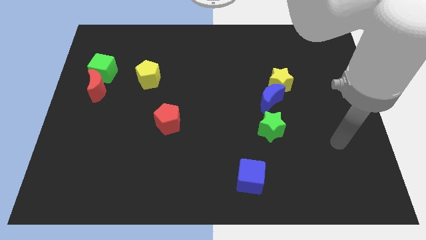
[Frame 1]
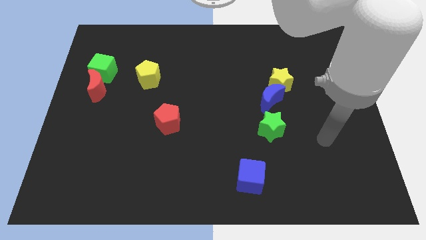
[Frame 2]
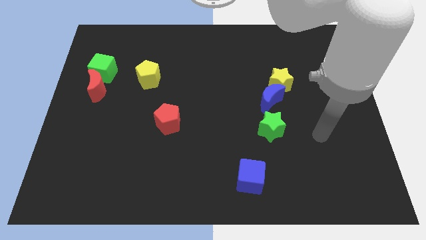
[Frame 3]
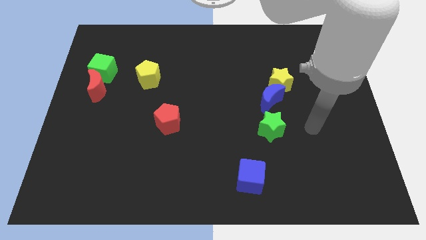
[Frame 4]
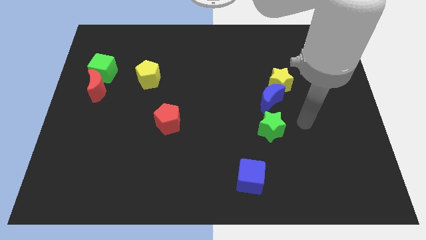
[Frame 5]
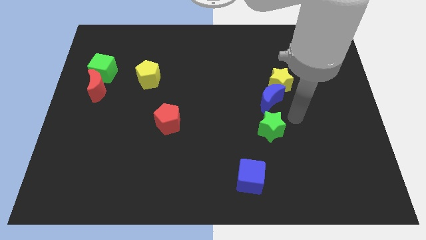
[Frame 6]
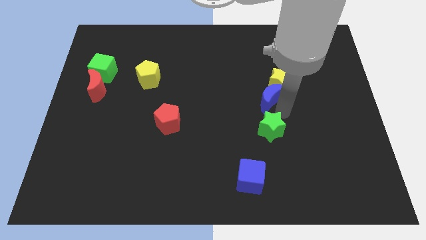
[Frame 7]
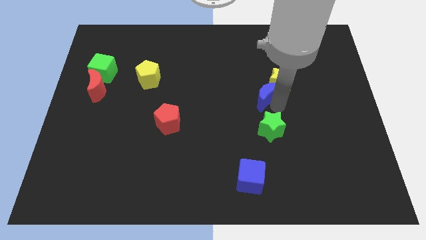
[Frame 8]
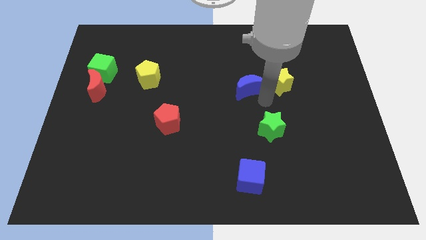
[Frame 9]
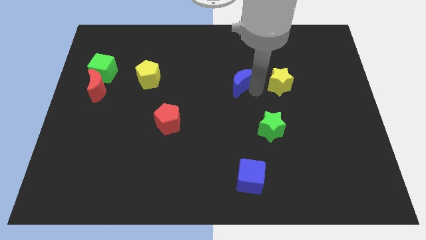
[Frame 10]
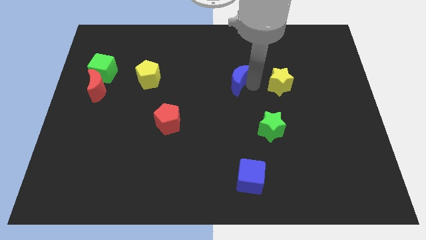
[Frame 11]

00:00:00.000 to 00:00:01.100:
move the yellow star away from the blue moon

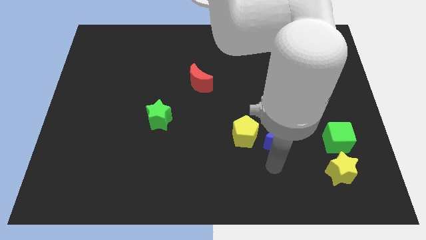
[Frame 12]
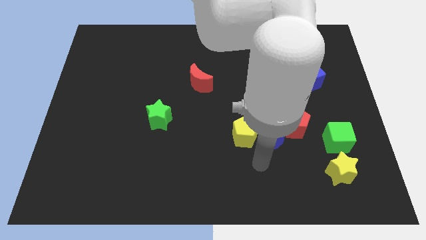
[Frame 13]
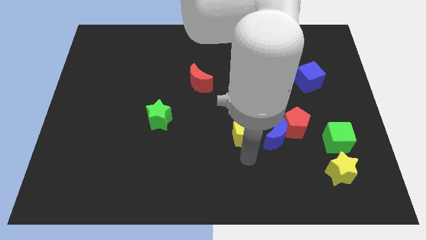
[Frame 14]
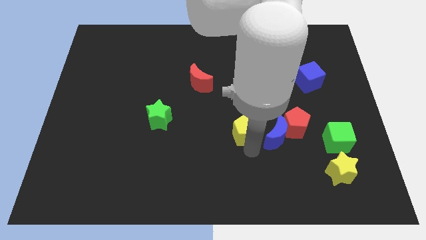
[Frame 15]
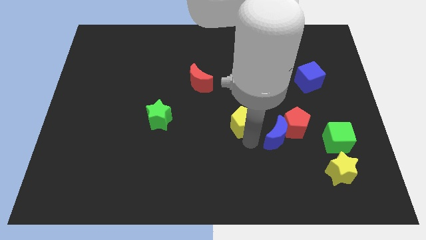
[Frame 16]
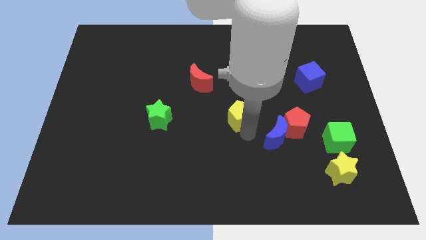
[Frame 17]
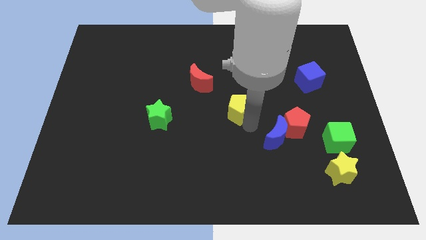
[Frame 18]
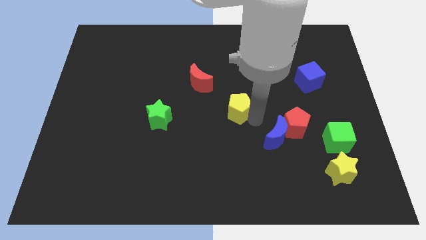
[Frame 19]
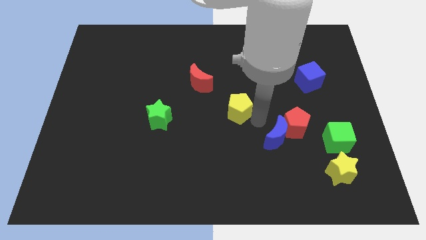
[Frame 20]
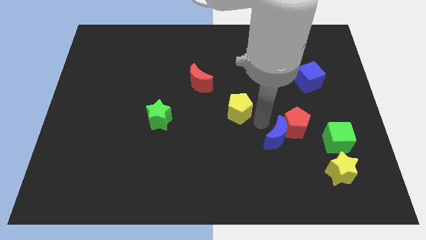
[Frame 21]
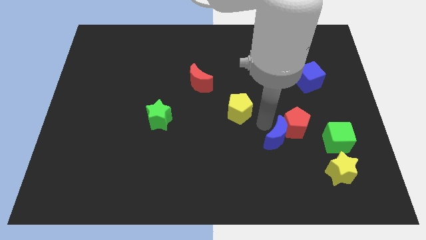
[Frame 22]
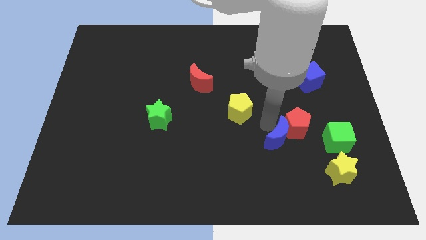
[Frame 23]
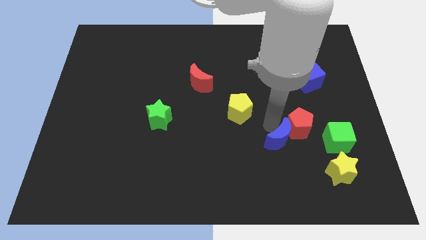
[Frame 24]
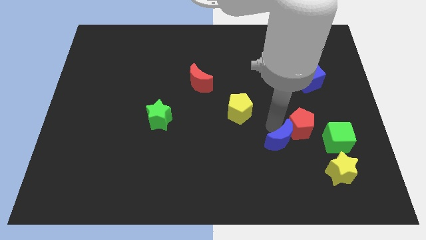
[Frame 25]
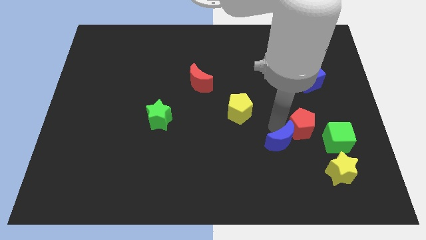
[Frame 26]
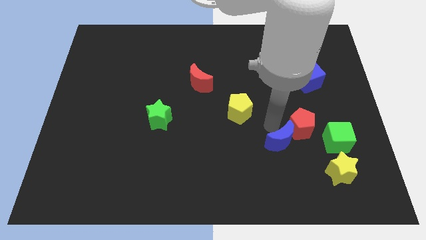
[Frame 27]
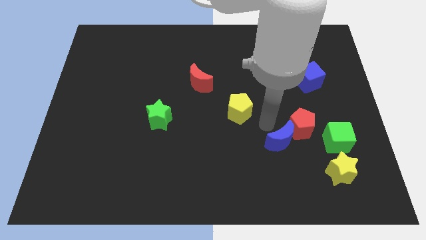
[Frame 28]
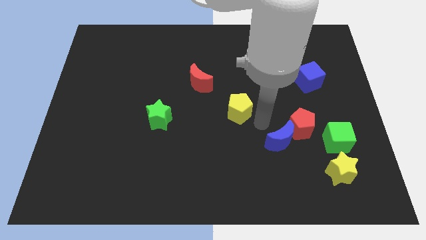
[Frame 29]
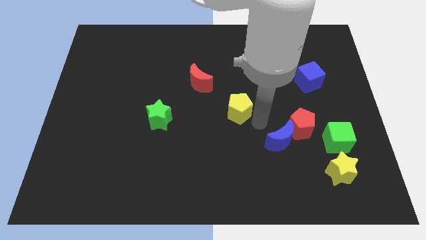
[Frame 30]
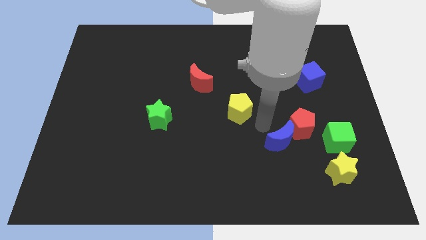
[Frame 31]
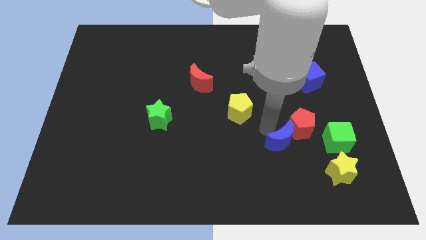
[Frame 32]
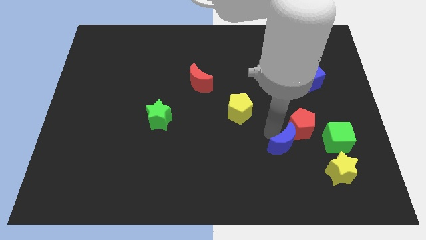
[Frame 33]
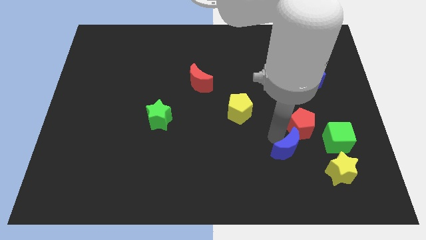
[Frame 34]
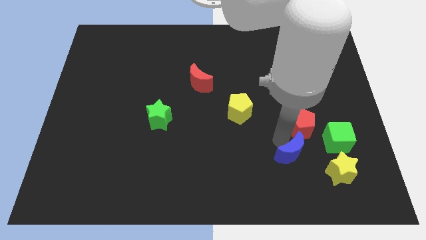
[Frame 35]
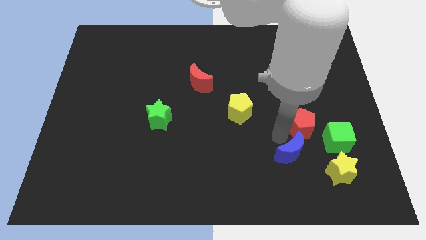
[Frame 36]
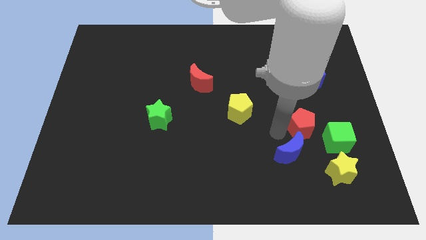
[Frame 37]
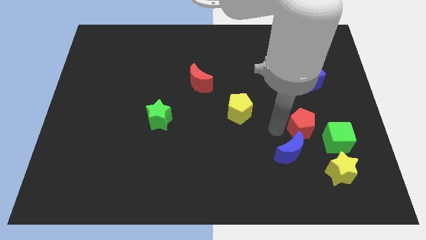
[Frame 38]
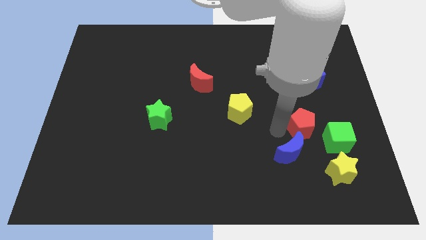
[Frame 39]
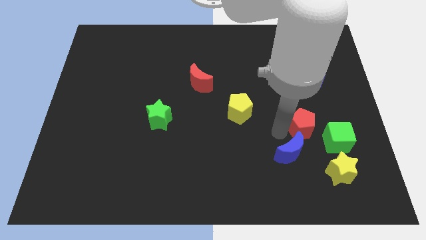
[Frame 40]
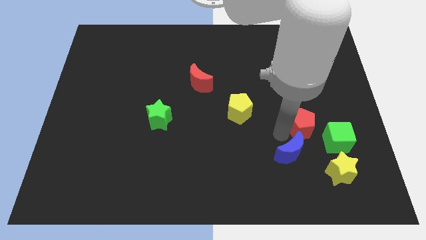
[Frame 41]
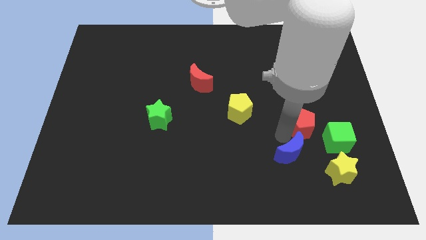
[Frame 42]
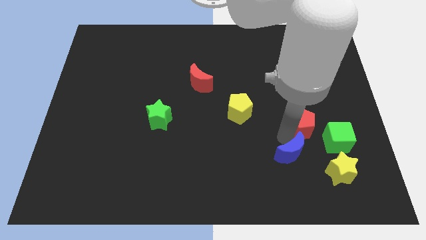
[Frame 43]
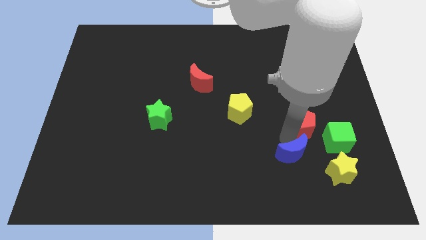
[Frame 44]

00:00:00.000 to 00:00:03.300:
move the blue moon away from the red pentagon and yellow pentagon

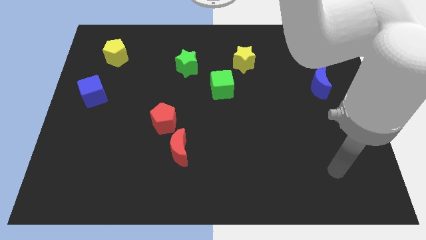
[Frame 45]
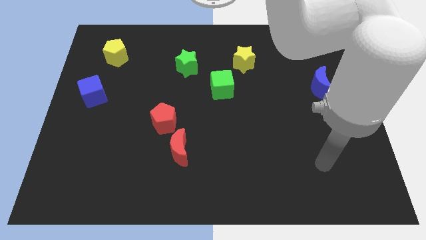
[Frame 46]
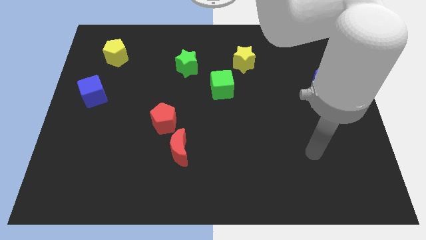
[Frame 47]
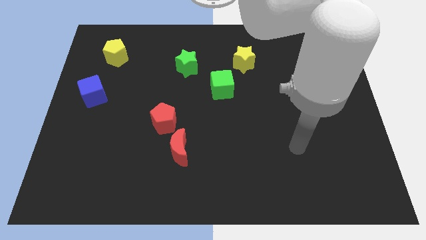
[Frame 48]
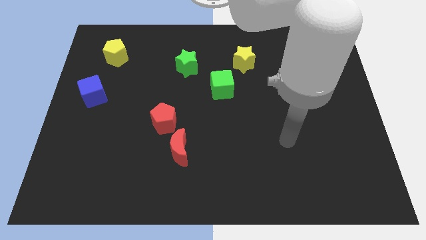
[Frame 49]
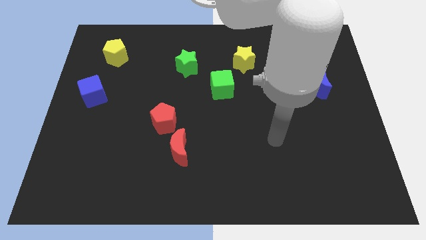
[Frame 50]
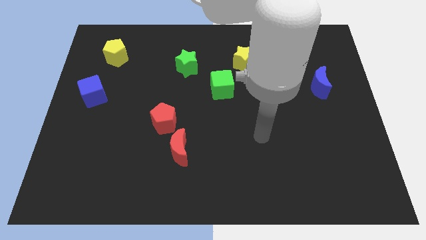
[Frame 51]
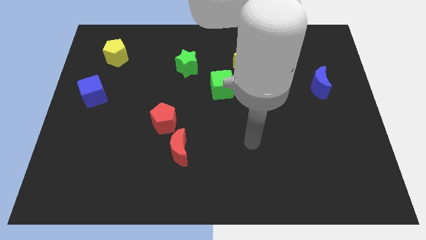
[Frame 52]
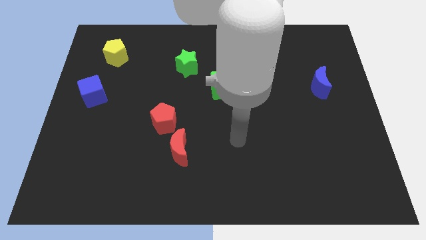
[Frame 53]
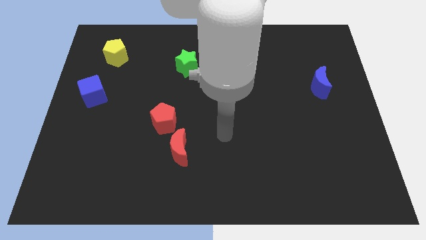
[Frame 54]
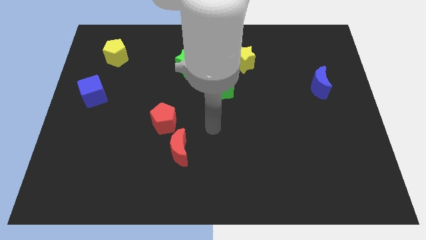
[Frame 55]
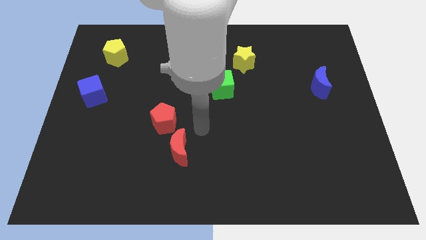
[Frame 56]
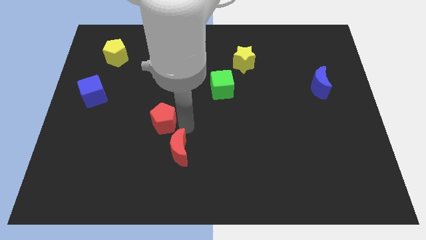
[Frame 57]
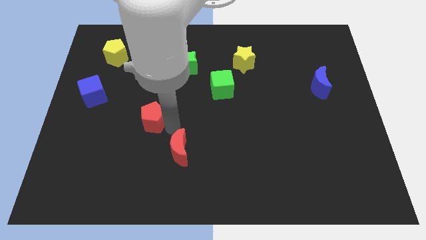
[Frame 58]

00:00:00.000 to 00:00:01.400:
move the red moon away from the red pentagon

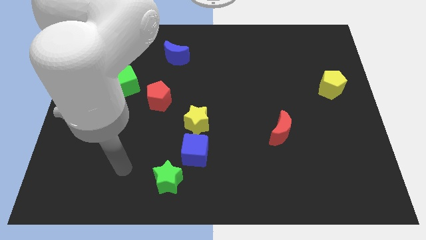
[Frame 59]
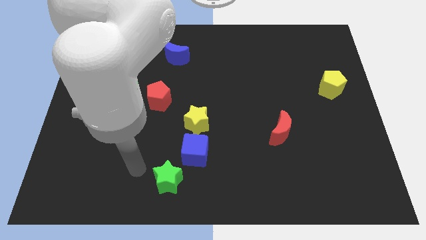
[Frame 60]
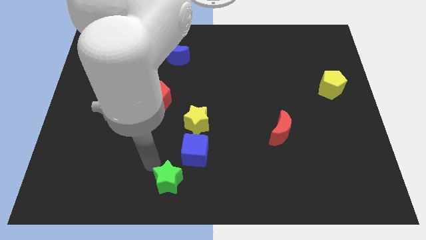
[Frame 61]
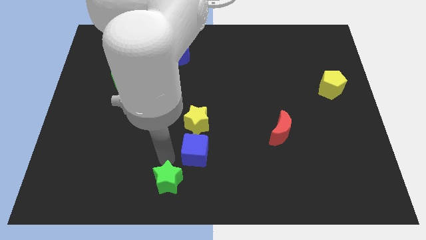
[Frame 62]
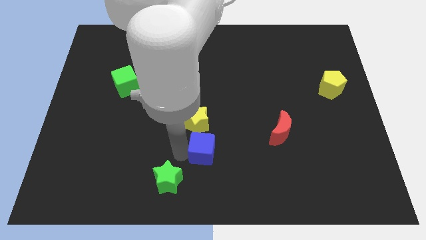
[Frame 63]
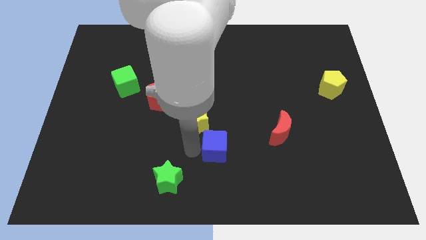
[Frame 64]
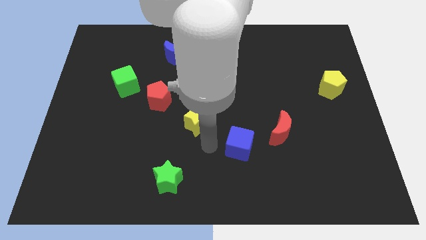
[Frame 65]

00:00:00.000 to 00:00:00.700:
separate the yellow star from the blue cube

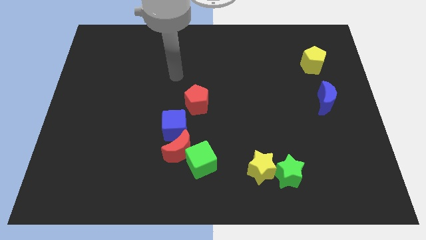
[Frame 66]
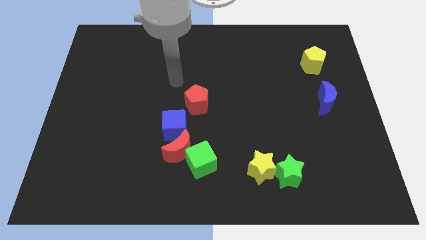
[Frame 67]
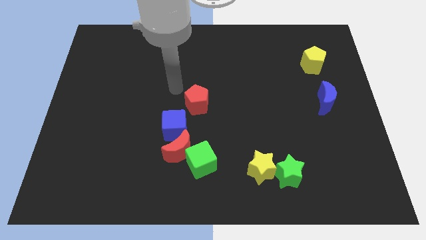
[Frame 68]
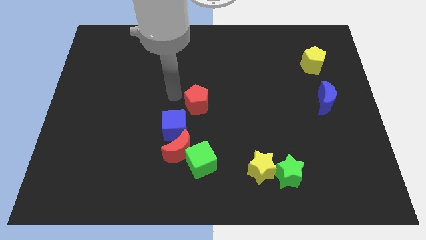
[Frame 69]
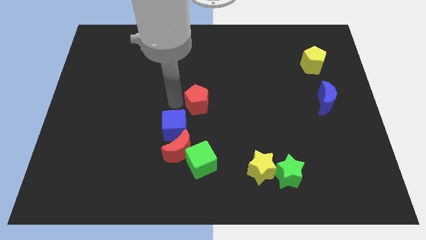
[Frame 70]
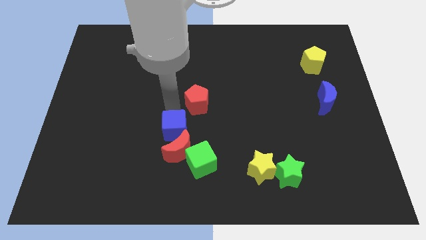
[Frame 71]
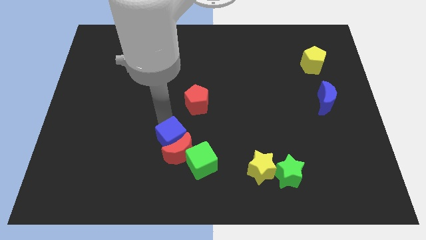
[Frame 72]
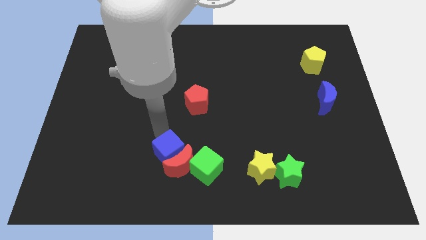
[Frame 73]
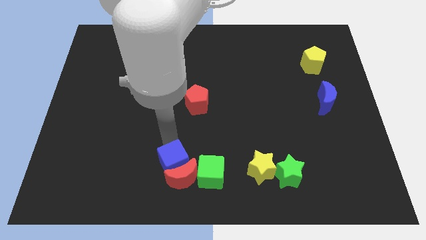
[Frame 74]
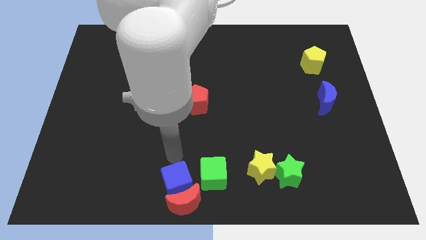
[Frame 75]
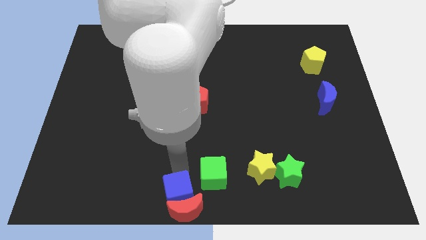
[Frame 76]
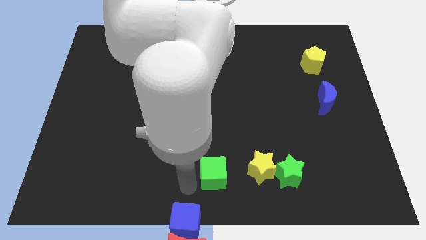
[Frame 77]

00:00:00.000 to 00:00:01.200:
separate the green cube from the red moon

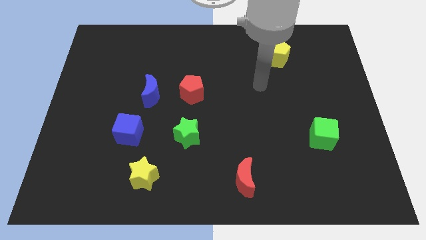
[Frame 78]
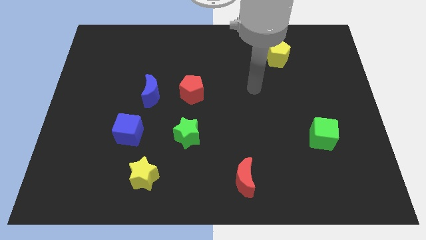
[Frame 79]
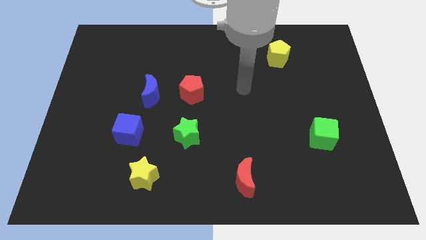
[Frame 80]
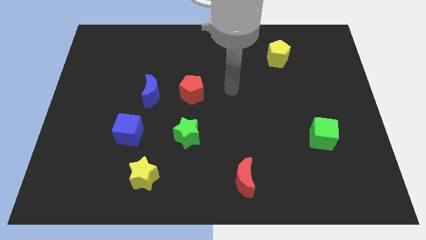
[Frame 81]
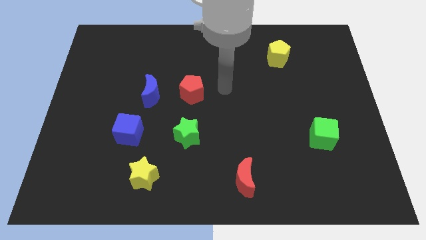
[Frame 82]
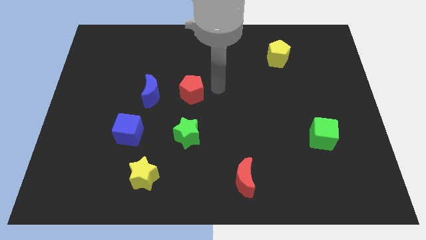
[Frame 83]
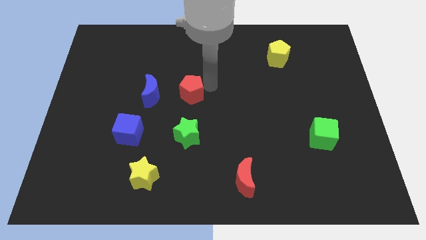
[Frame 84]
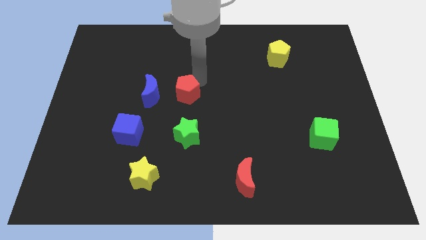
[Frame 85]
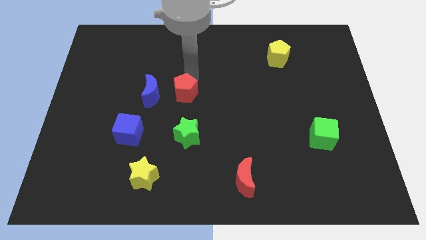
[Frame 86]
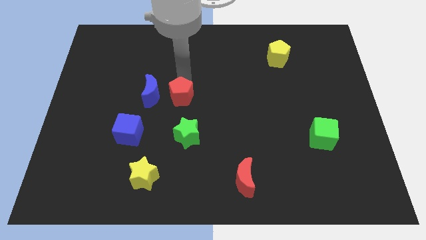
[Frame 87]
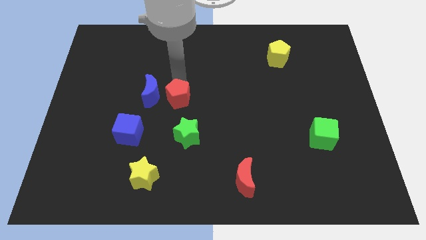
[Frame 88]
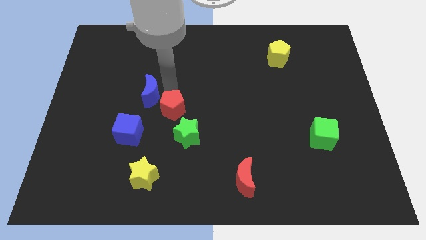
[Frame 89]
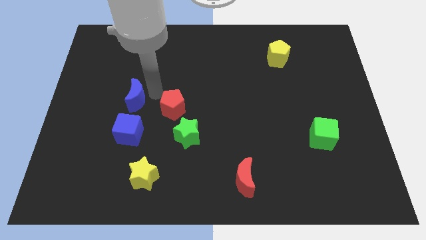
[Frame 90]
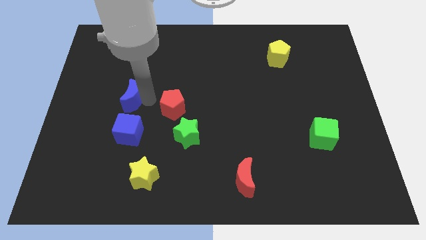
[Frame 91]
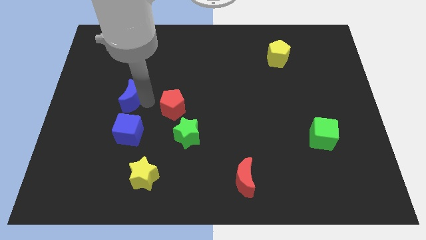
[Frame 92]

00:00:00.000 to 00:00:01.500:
move the red pentagon away from the blue moon
